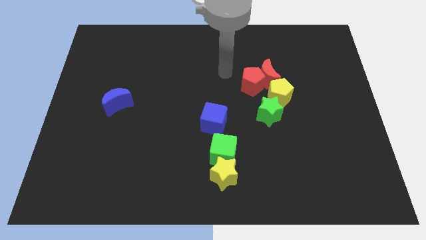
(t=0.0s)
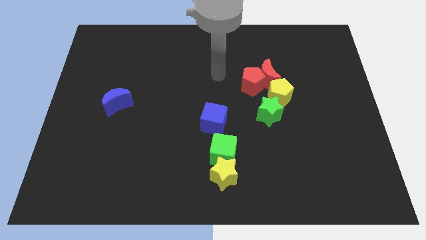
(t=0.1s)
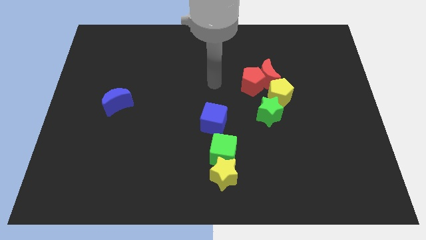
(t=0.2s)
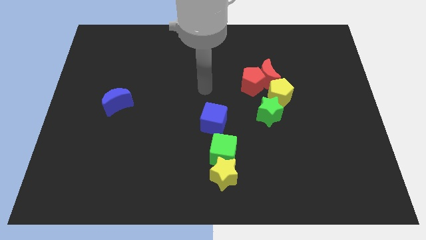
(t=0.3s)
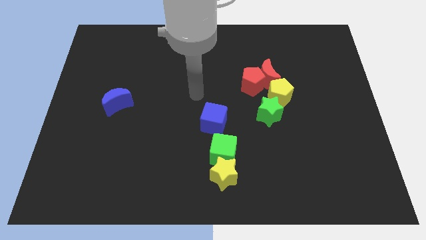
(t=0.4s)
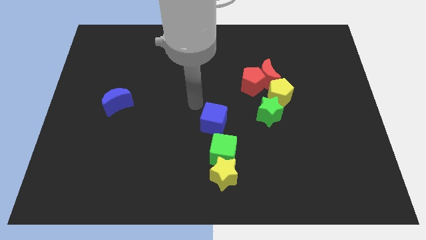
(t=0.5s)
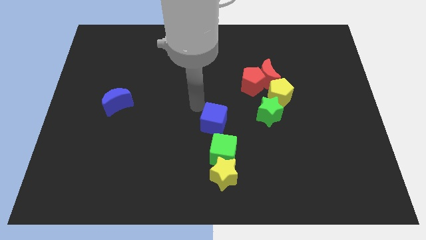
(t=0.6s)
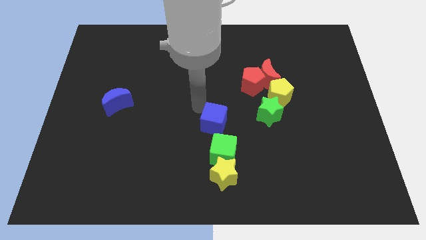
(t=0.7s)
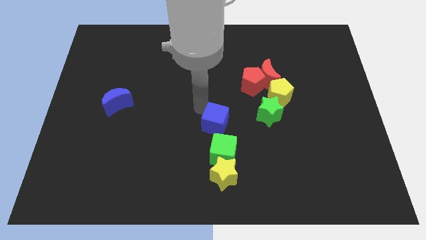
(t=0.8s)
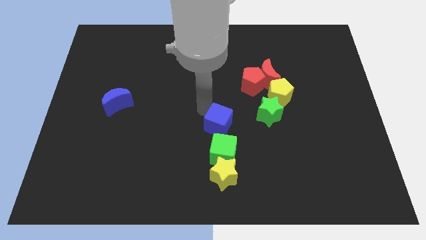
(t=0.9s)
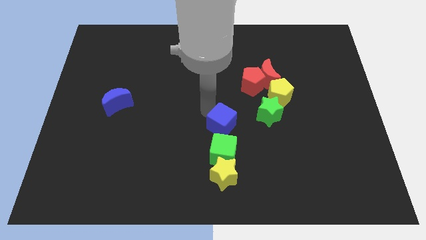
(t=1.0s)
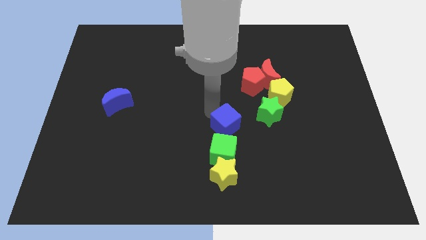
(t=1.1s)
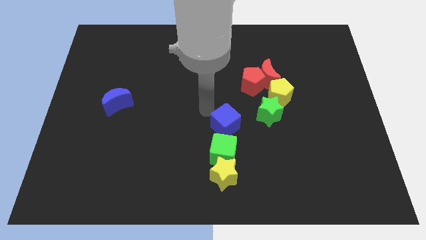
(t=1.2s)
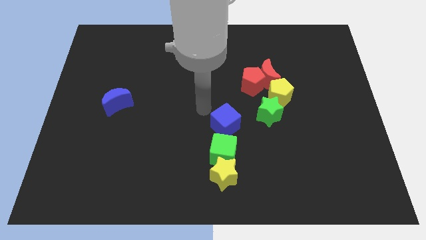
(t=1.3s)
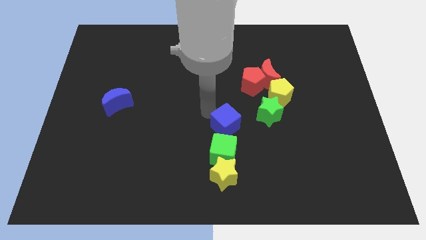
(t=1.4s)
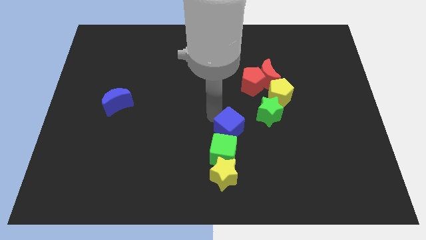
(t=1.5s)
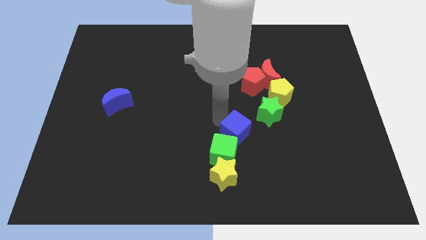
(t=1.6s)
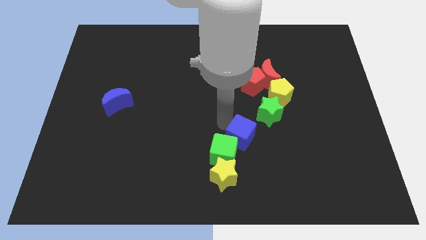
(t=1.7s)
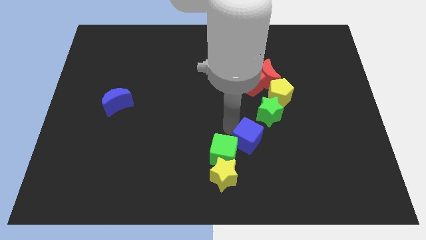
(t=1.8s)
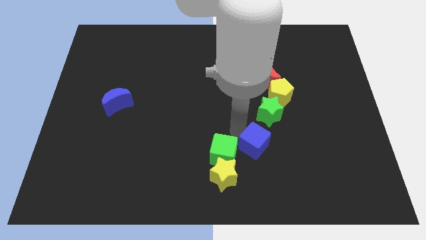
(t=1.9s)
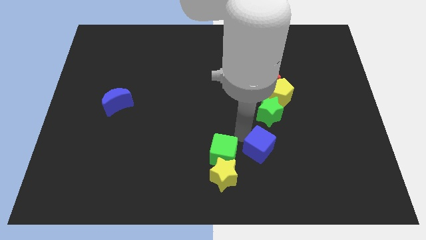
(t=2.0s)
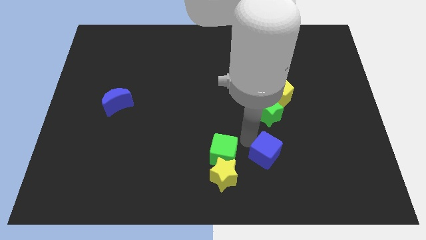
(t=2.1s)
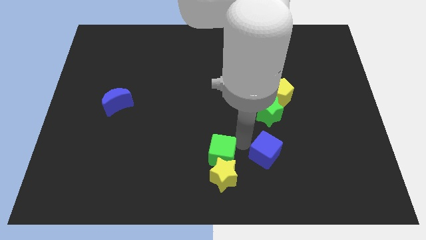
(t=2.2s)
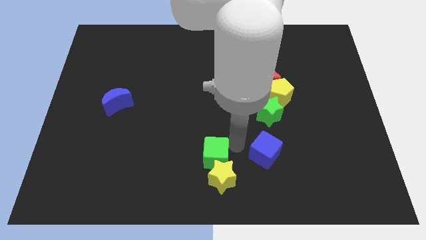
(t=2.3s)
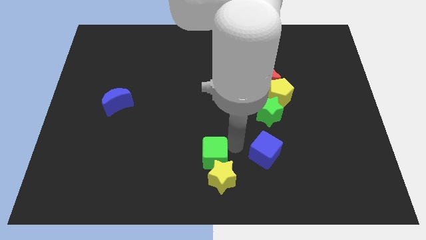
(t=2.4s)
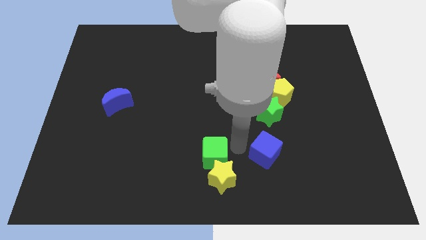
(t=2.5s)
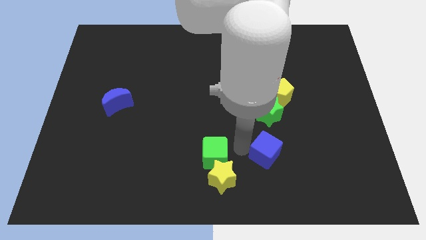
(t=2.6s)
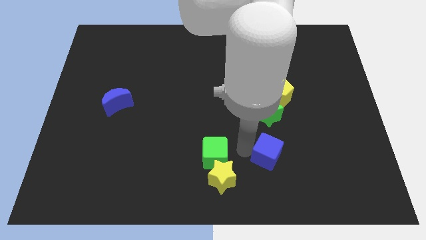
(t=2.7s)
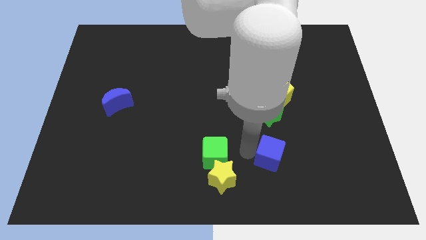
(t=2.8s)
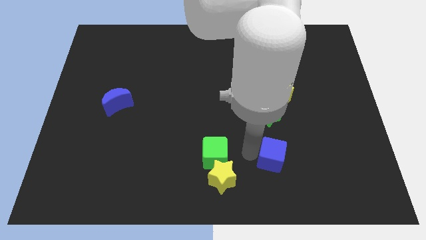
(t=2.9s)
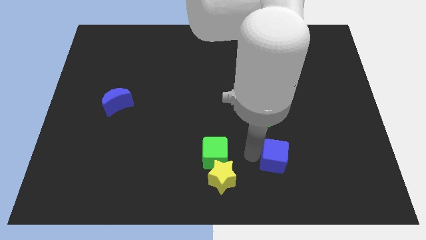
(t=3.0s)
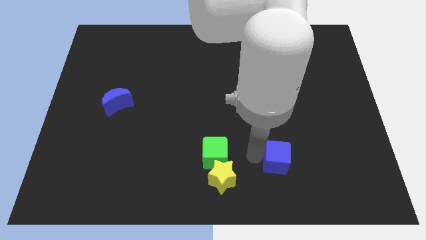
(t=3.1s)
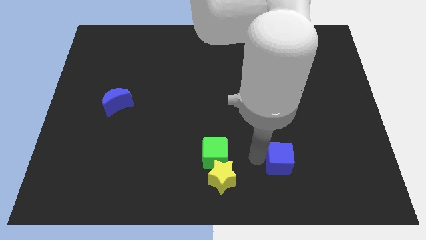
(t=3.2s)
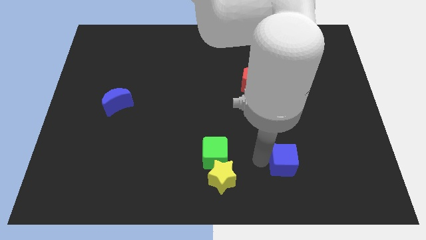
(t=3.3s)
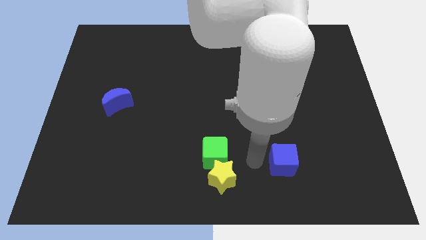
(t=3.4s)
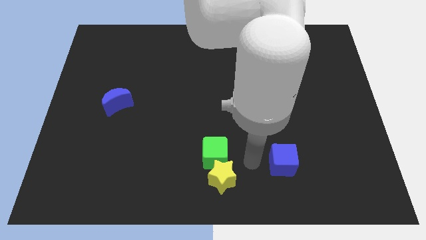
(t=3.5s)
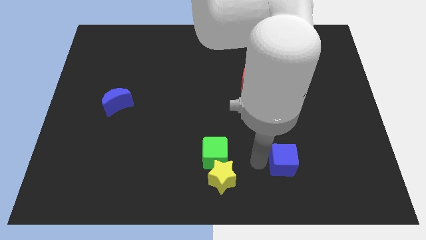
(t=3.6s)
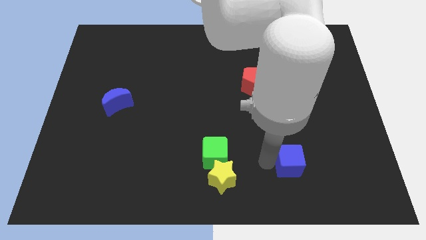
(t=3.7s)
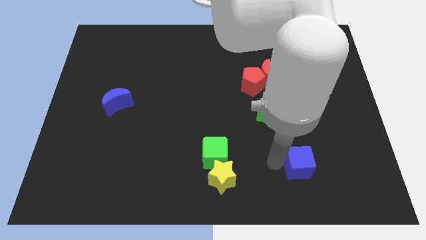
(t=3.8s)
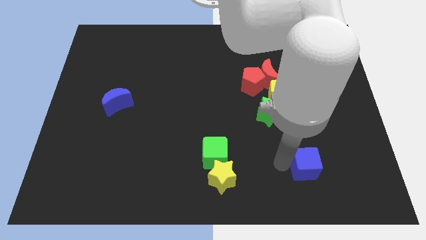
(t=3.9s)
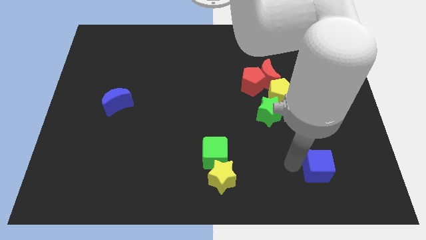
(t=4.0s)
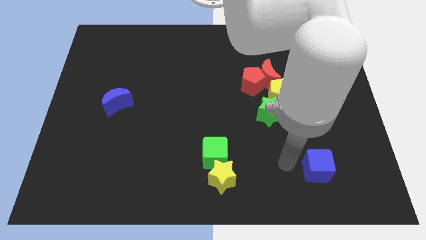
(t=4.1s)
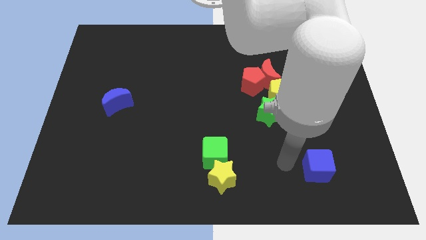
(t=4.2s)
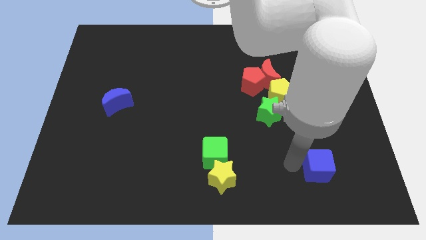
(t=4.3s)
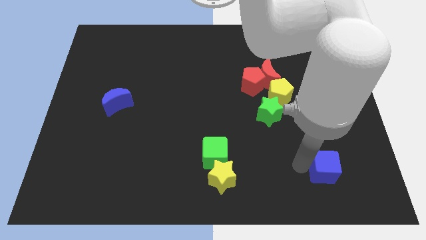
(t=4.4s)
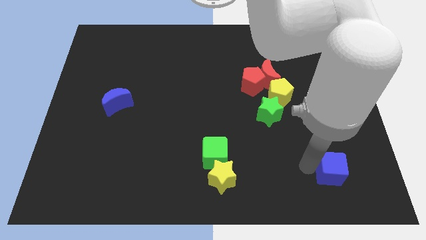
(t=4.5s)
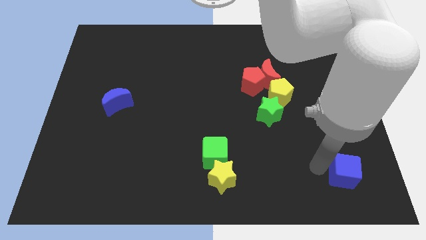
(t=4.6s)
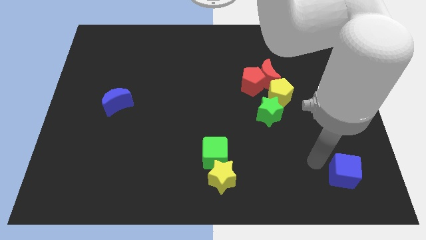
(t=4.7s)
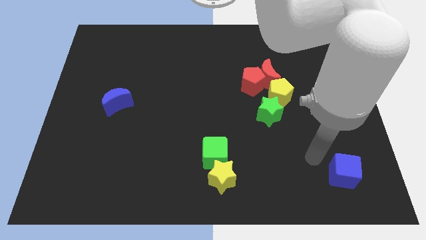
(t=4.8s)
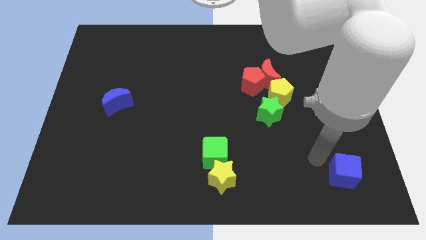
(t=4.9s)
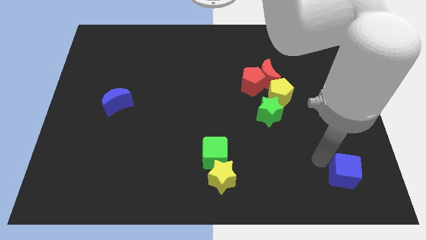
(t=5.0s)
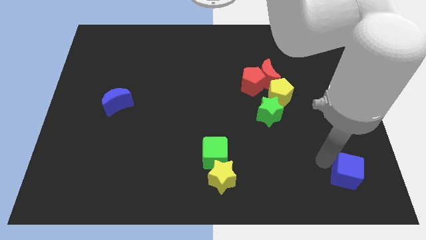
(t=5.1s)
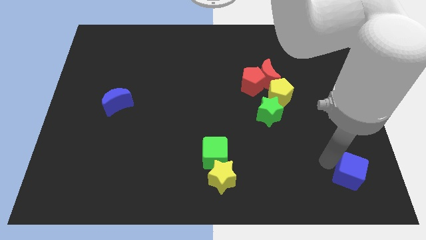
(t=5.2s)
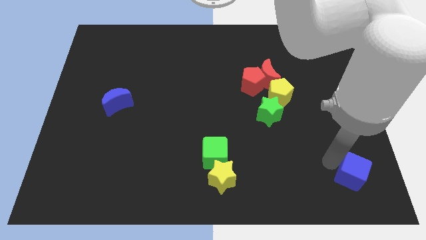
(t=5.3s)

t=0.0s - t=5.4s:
put the blue cube to the bottom right

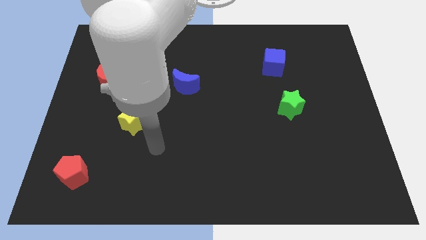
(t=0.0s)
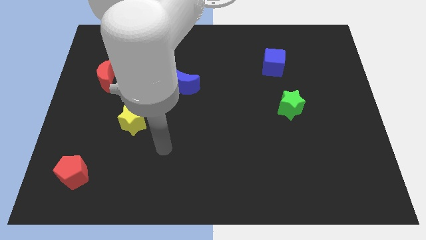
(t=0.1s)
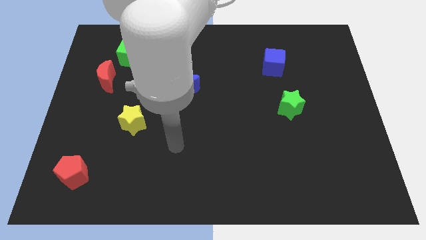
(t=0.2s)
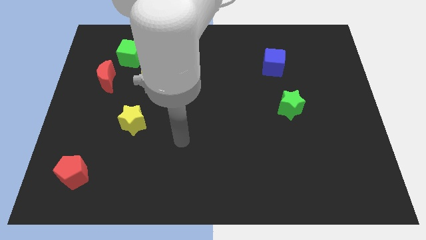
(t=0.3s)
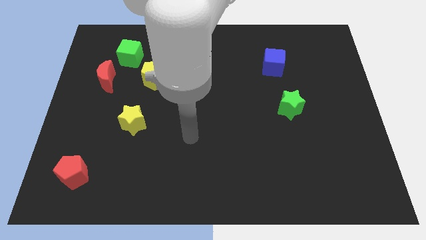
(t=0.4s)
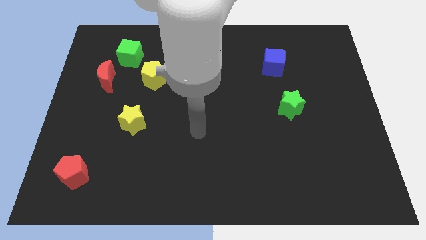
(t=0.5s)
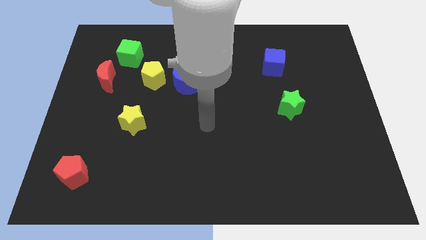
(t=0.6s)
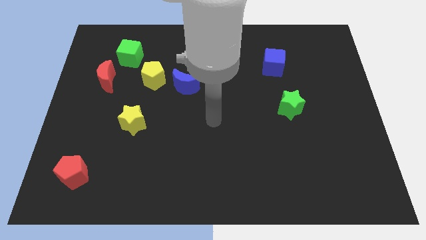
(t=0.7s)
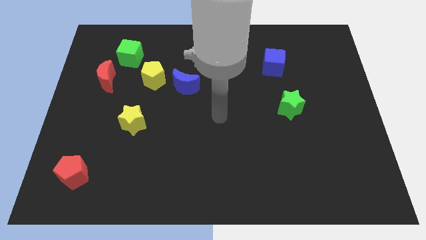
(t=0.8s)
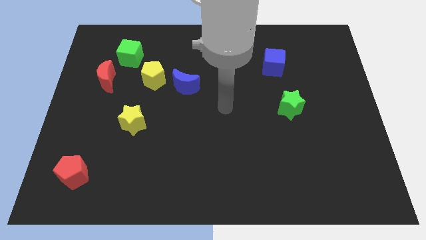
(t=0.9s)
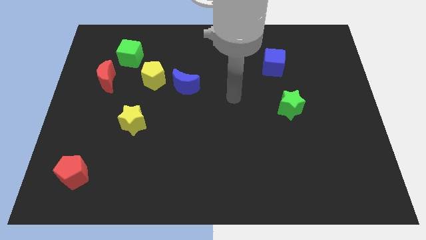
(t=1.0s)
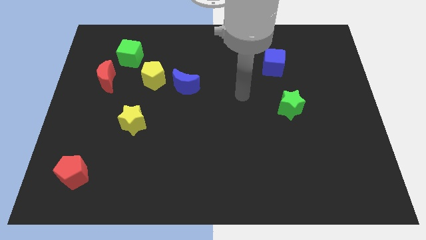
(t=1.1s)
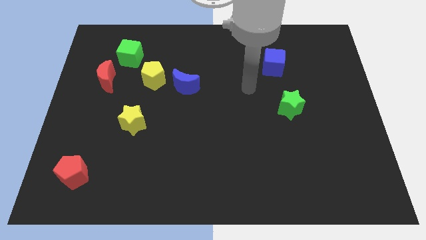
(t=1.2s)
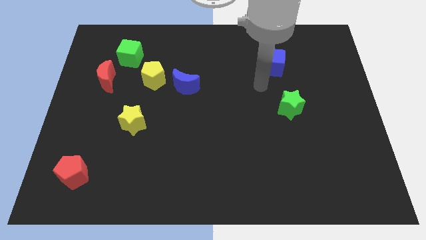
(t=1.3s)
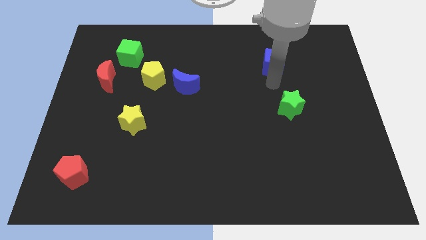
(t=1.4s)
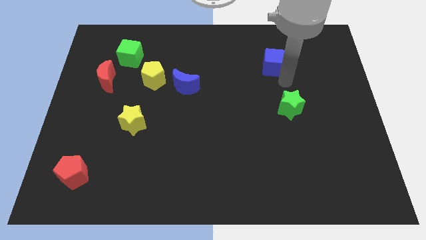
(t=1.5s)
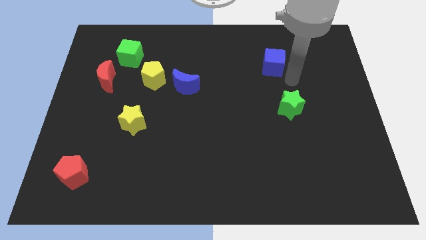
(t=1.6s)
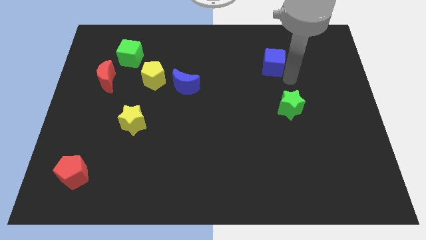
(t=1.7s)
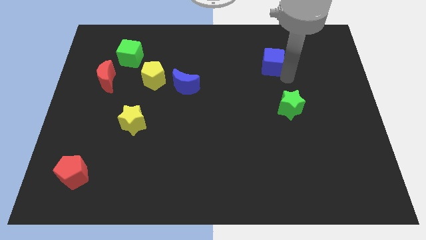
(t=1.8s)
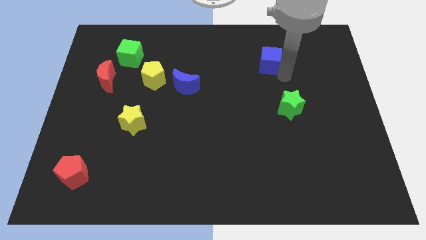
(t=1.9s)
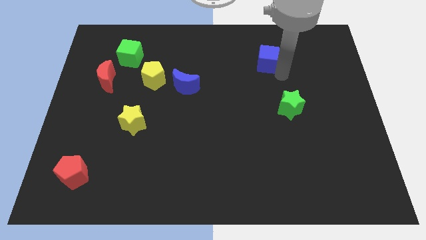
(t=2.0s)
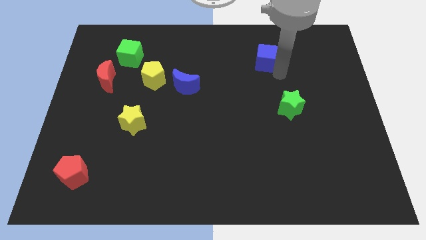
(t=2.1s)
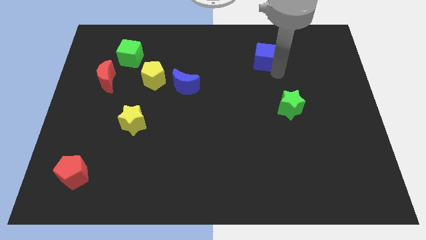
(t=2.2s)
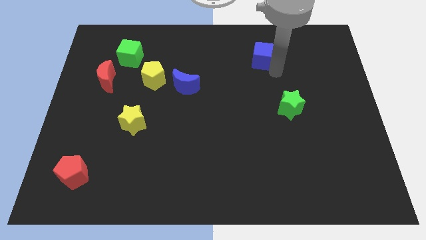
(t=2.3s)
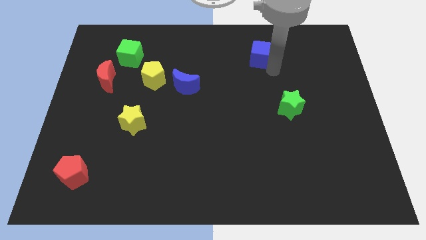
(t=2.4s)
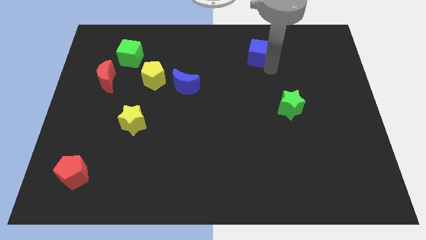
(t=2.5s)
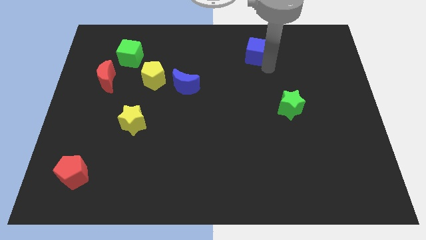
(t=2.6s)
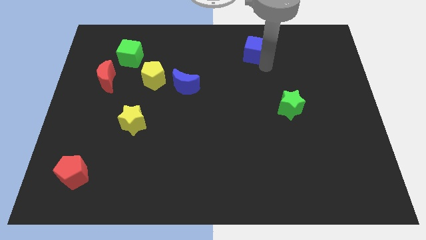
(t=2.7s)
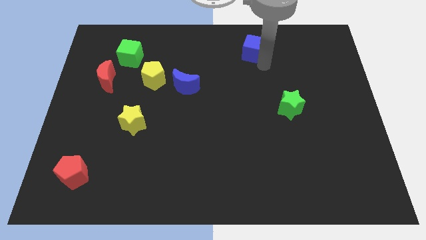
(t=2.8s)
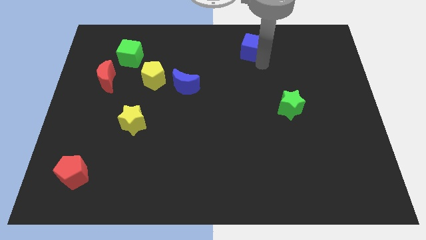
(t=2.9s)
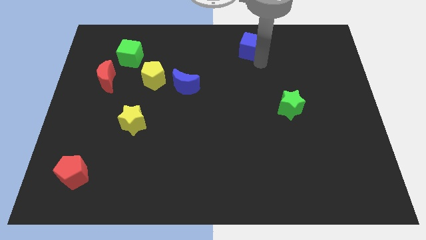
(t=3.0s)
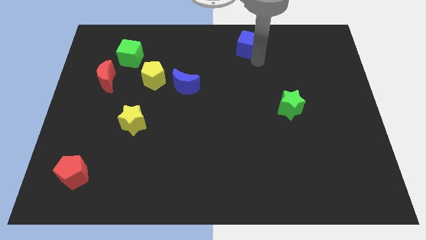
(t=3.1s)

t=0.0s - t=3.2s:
push the blue cube to the top side
